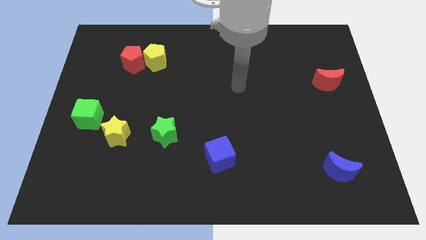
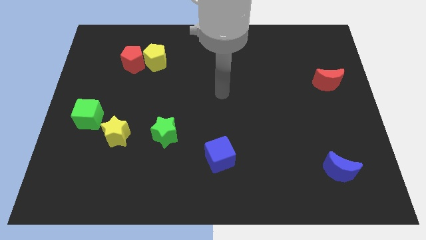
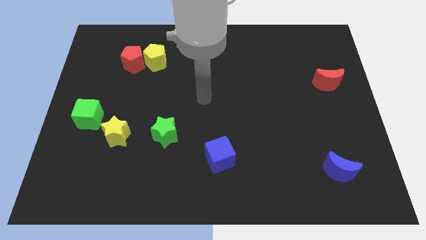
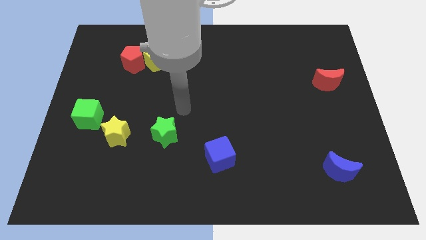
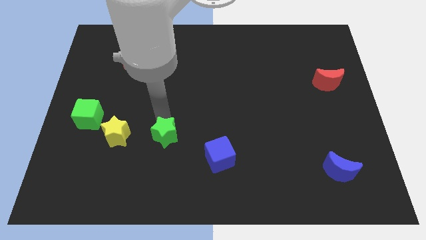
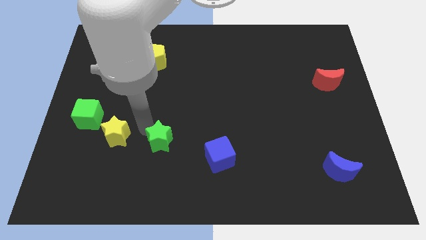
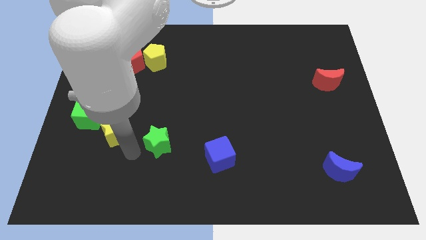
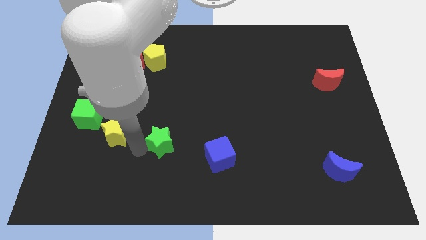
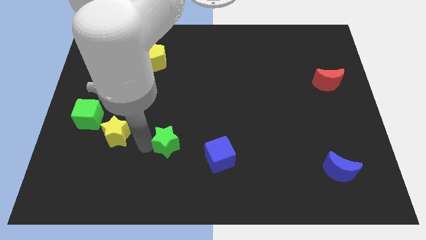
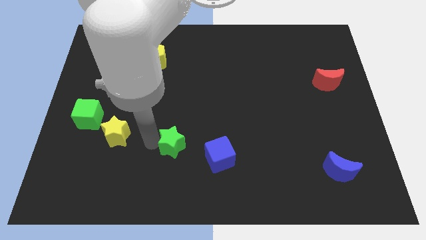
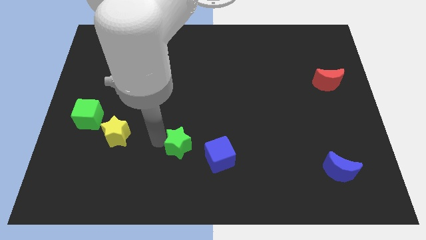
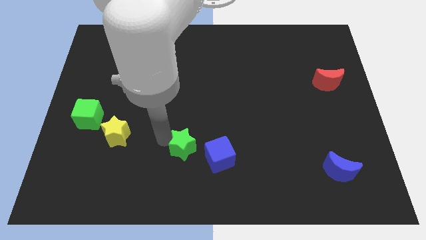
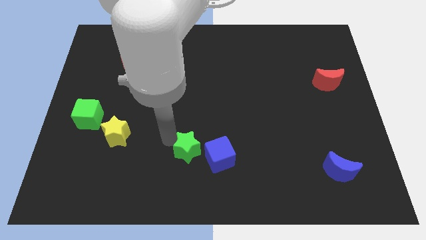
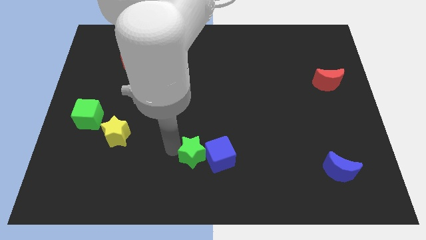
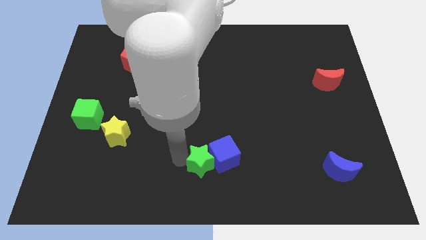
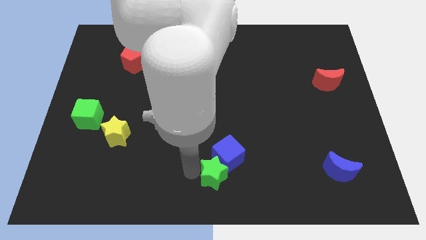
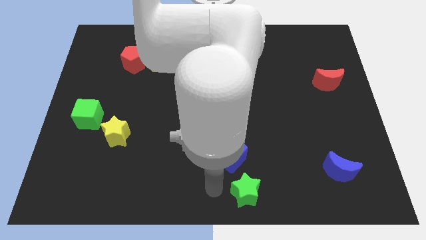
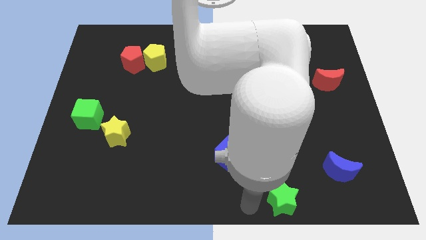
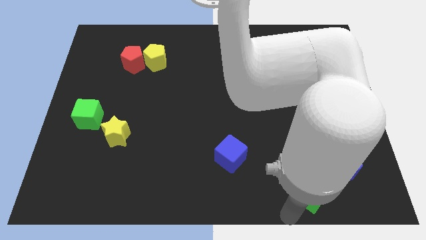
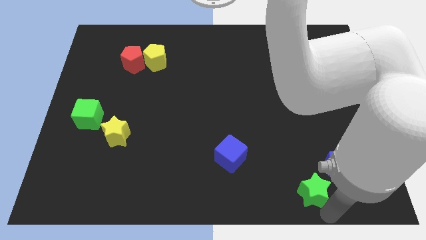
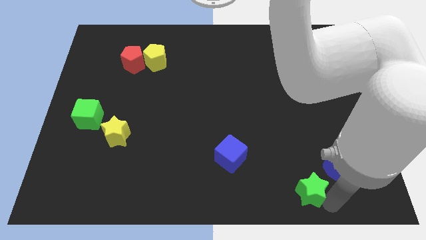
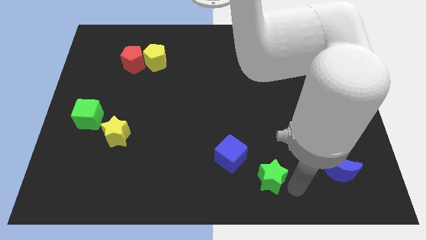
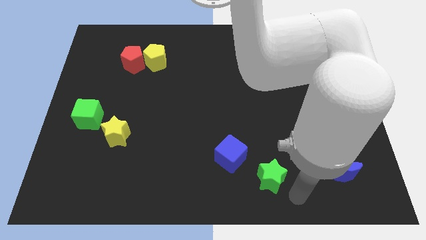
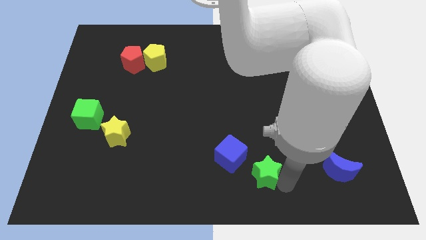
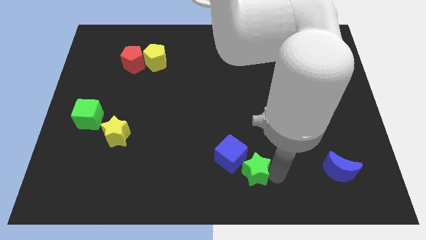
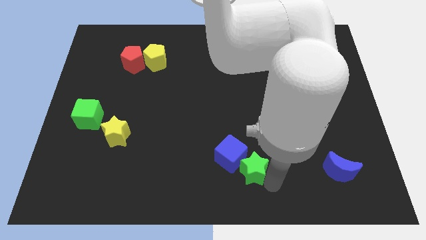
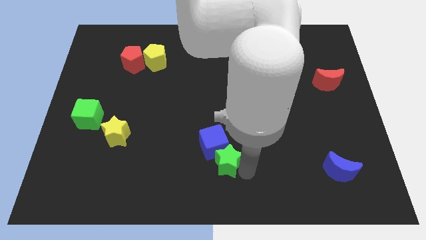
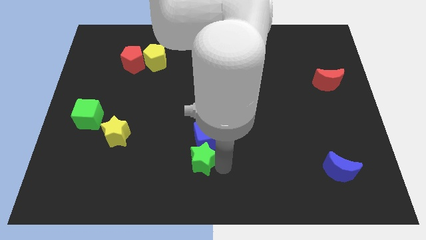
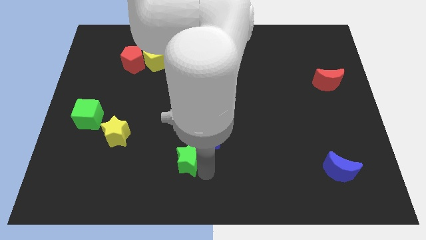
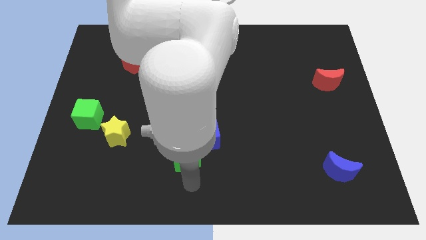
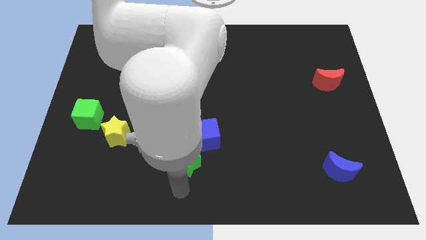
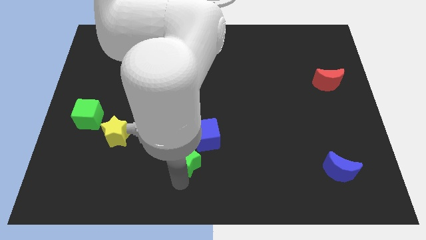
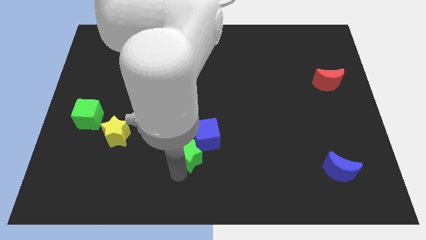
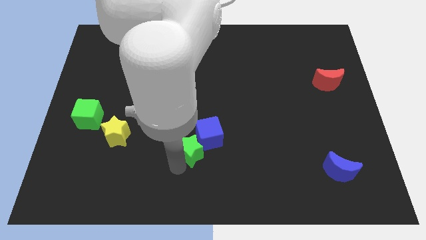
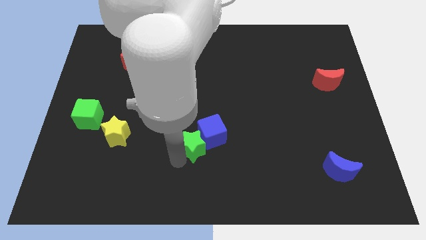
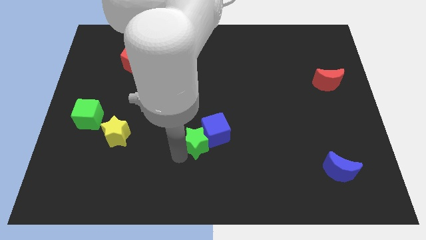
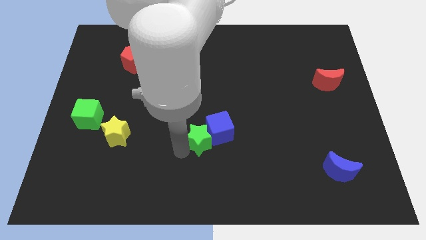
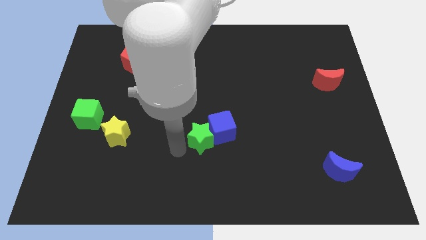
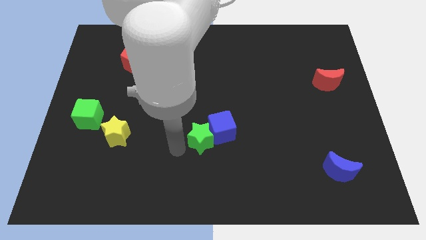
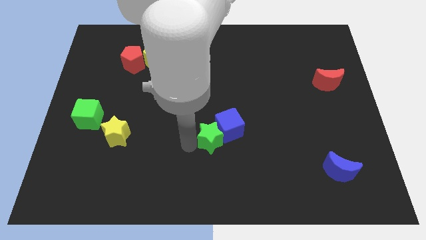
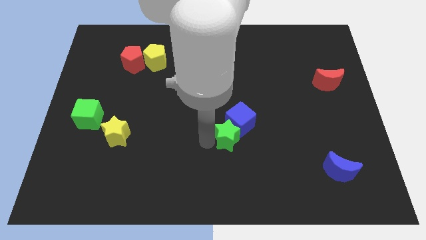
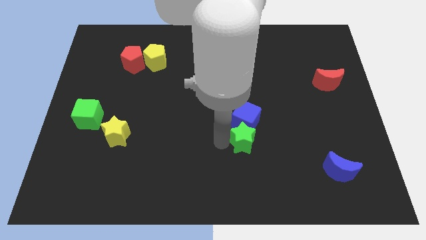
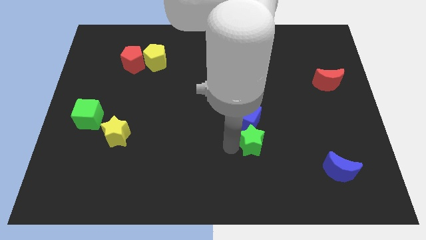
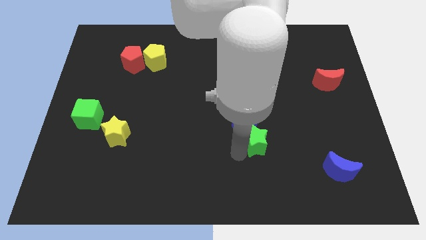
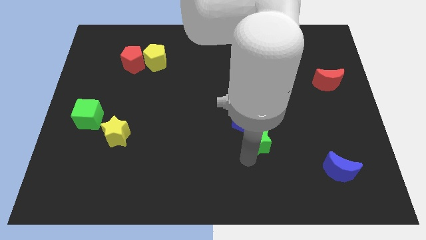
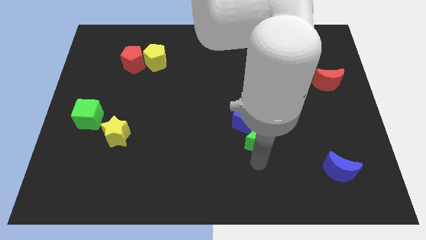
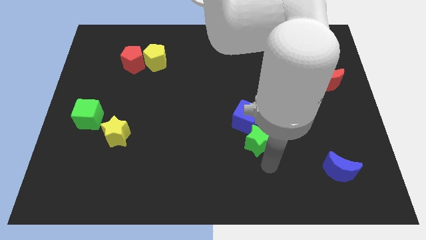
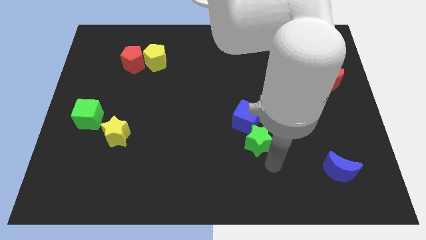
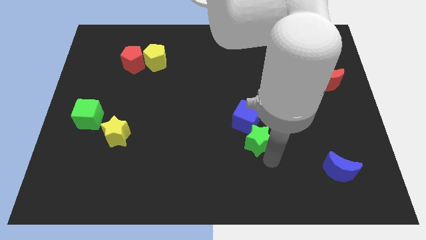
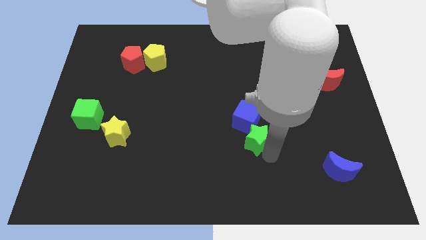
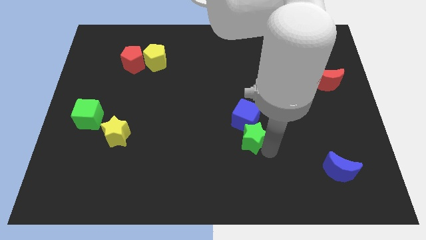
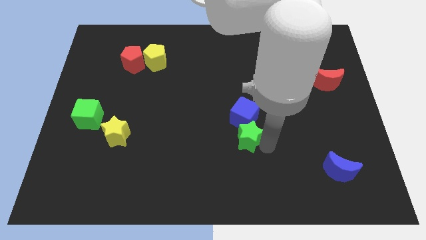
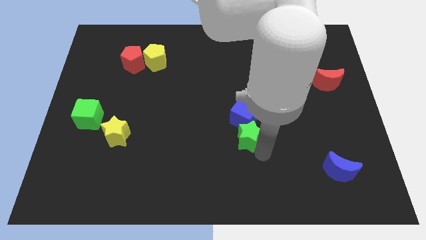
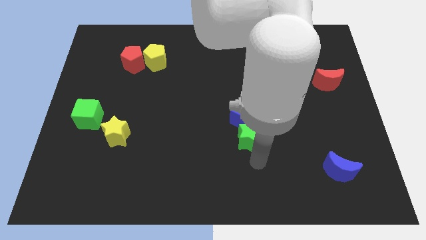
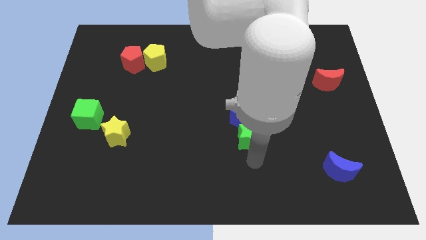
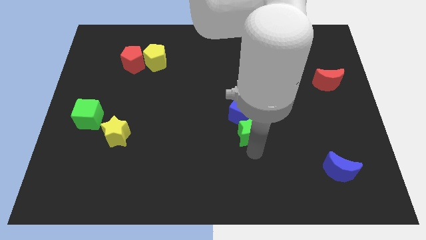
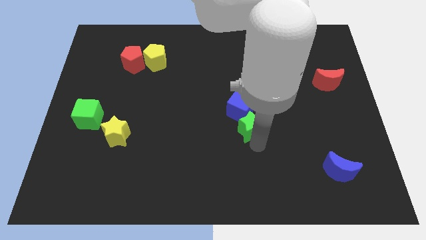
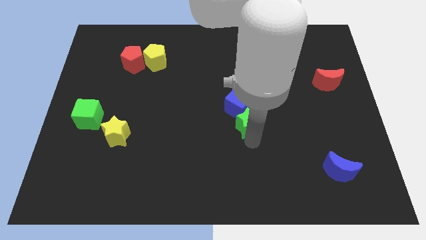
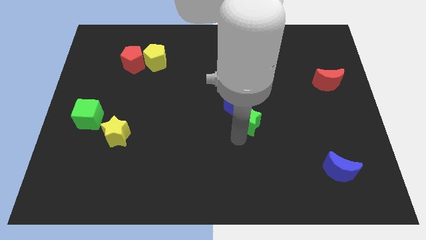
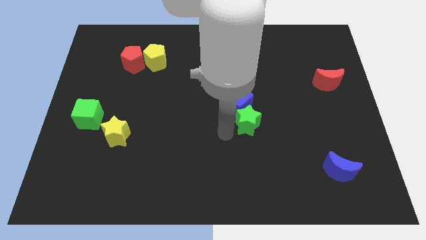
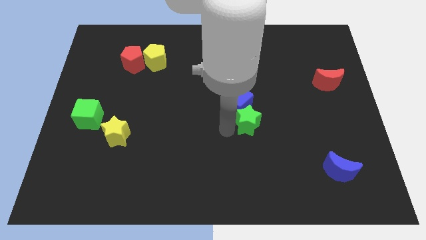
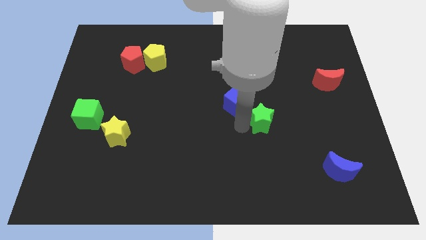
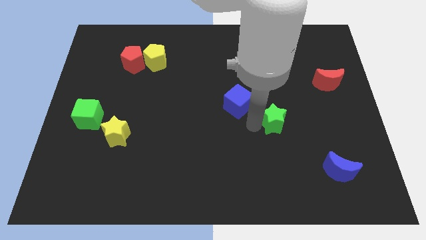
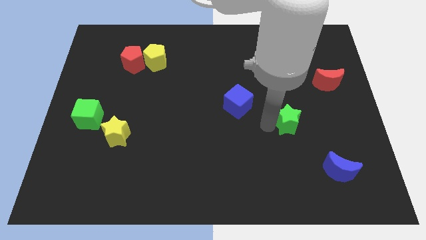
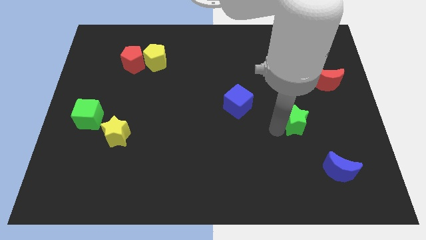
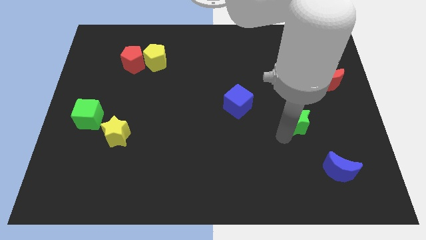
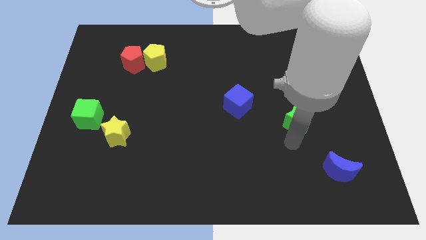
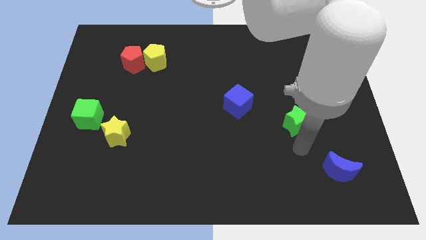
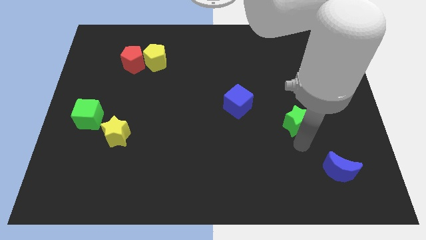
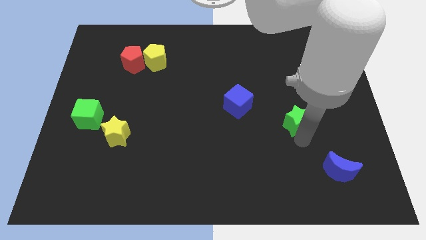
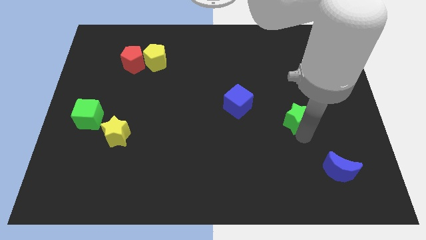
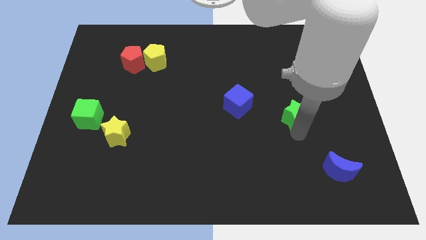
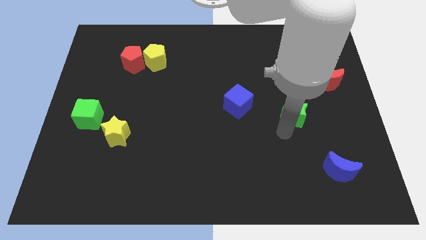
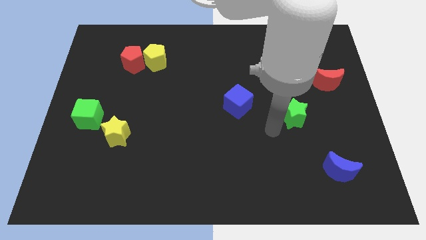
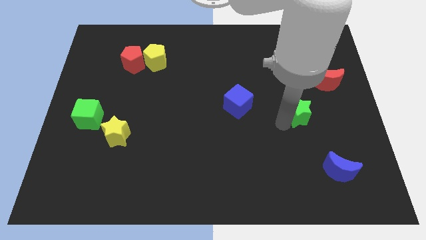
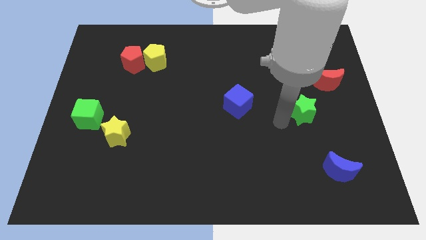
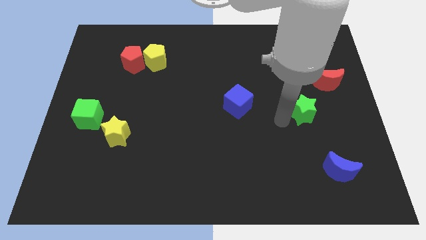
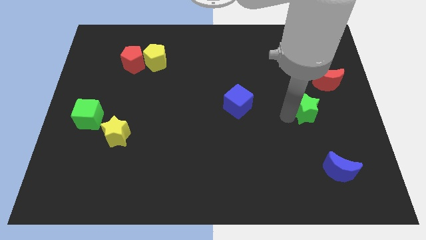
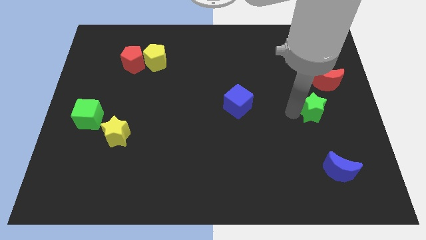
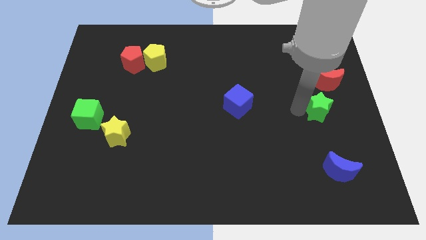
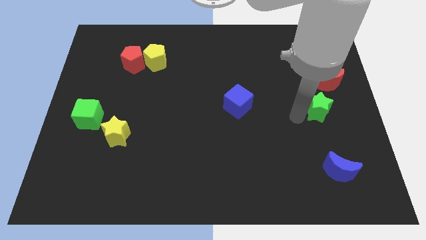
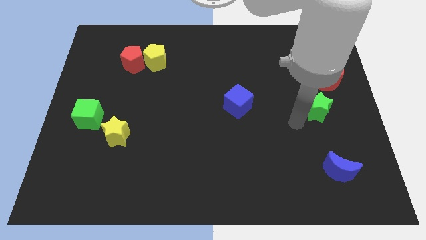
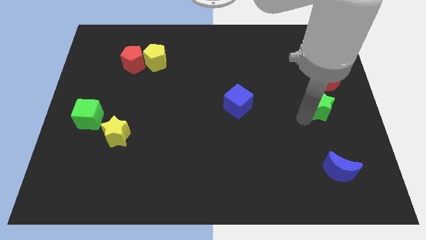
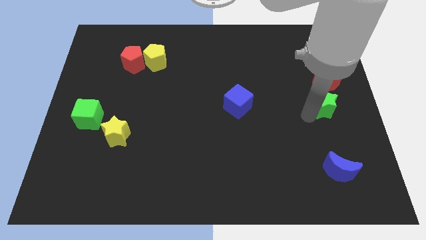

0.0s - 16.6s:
move the green star to the right side
